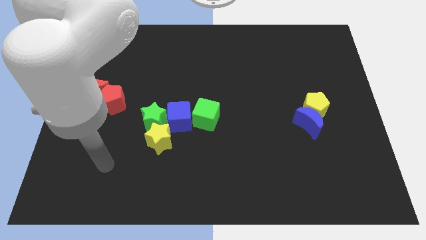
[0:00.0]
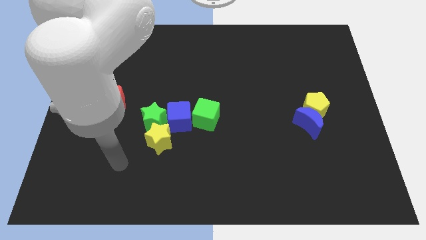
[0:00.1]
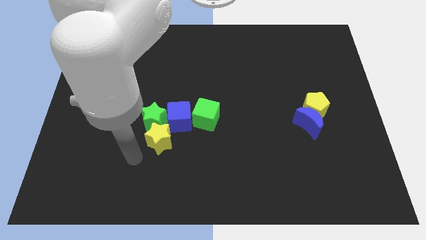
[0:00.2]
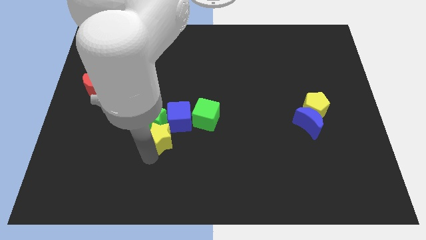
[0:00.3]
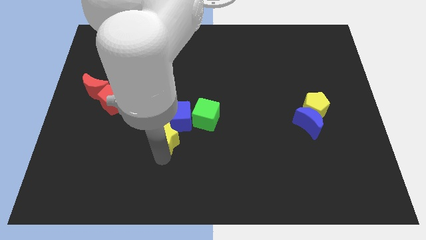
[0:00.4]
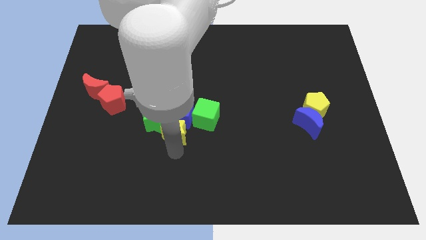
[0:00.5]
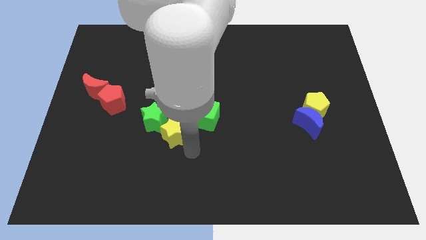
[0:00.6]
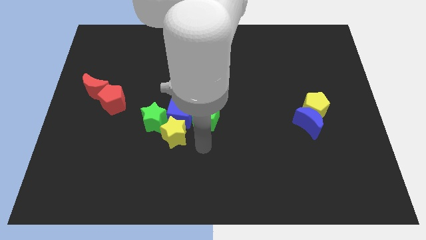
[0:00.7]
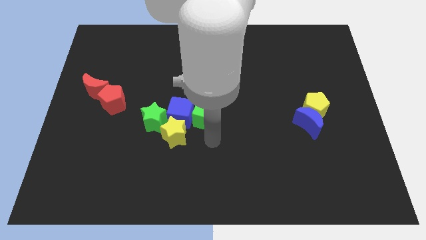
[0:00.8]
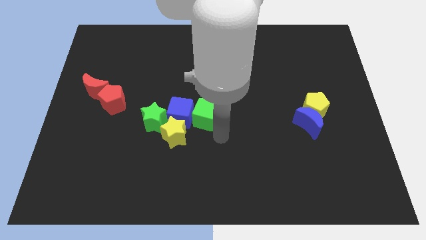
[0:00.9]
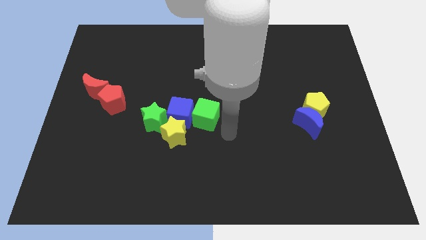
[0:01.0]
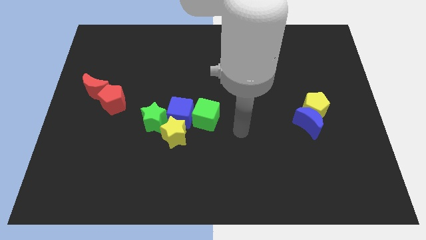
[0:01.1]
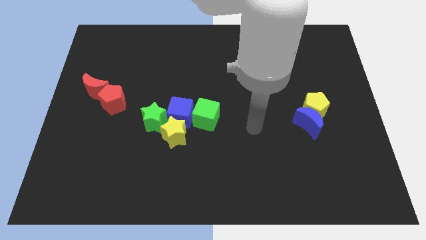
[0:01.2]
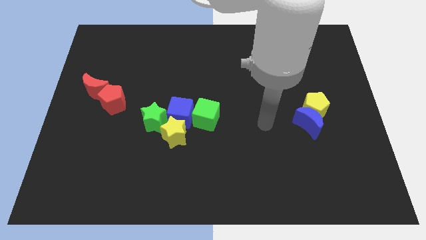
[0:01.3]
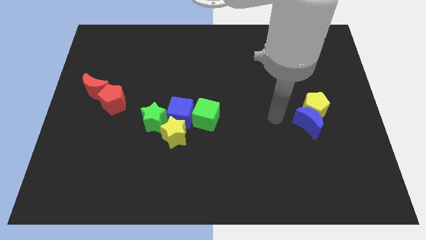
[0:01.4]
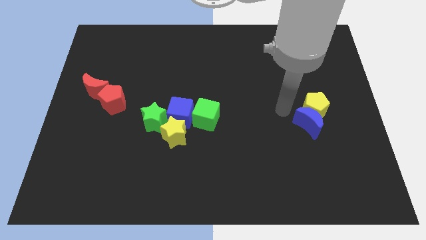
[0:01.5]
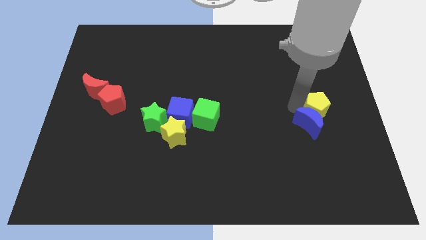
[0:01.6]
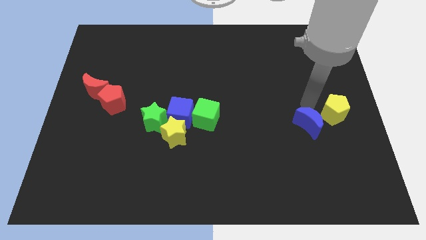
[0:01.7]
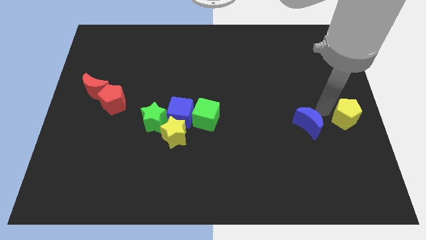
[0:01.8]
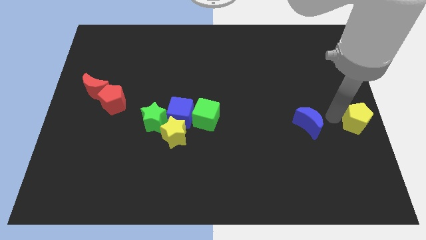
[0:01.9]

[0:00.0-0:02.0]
pull the blue moon apart from the yellow pentagon

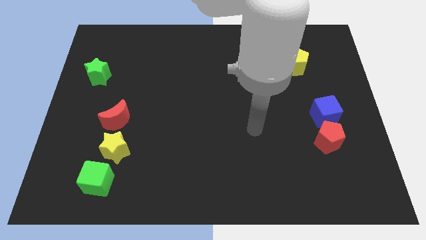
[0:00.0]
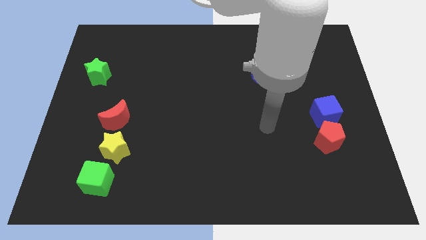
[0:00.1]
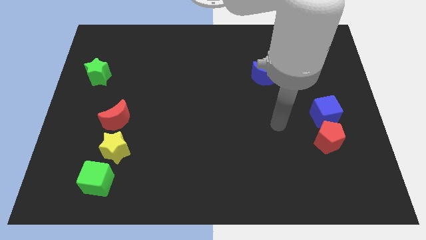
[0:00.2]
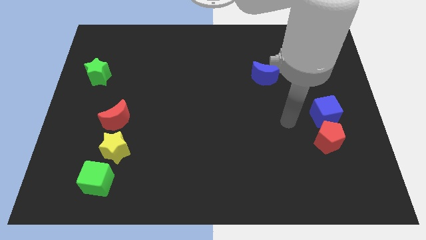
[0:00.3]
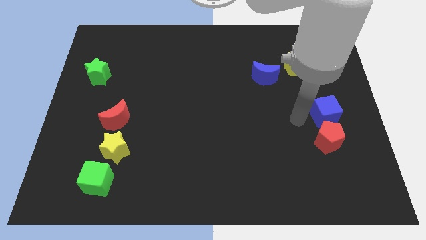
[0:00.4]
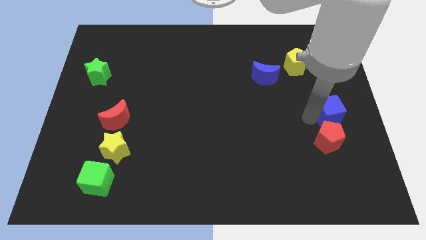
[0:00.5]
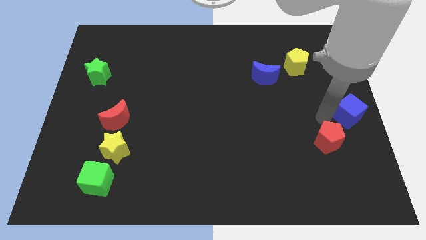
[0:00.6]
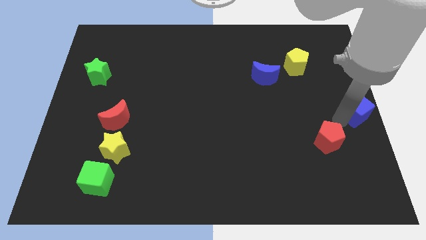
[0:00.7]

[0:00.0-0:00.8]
separate the red pentagon from the blue cube

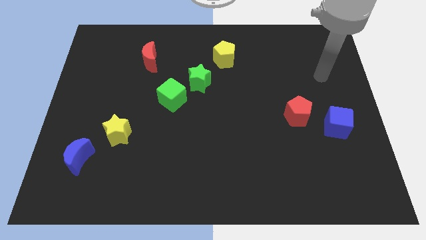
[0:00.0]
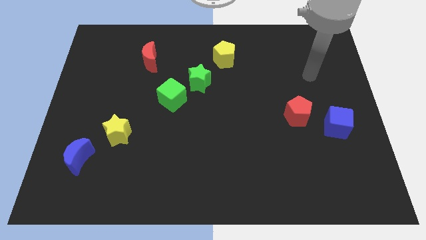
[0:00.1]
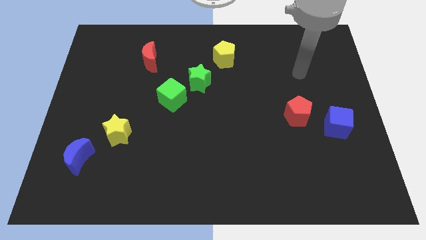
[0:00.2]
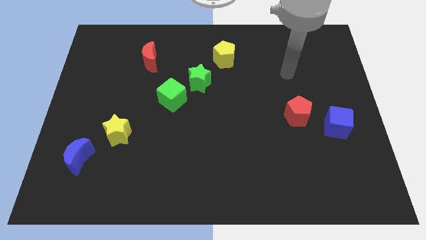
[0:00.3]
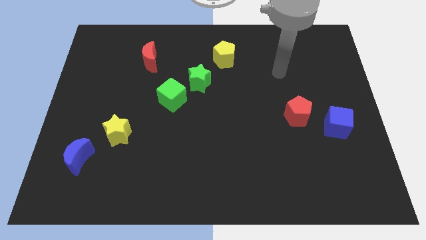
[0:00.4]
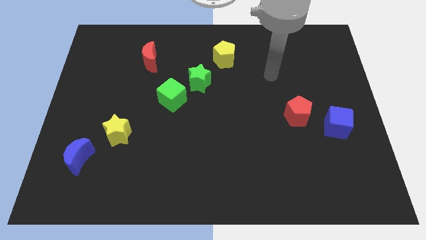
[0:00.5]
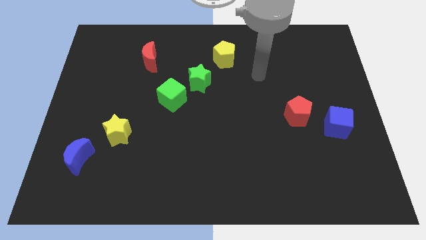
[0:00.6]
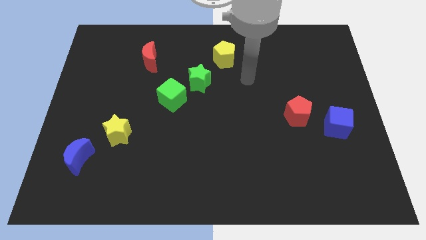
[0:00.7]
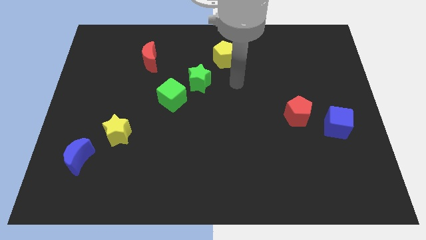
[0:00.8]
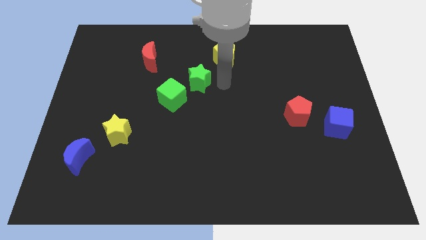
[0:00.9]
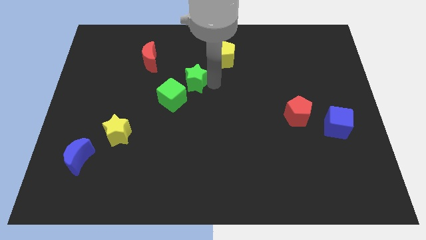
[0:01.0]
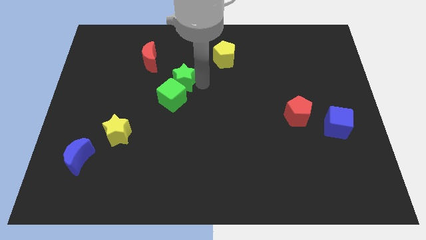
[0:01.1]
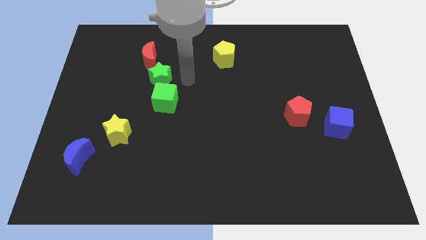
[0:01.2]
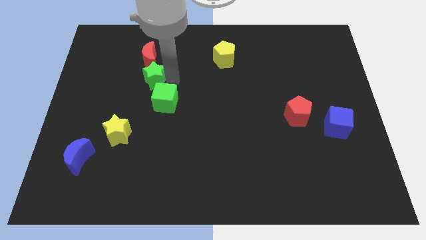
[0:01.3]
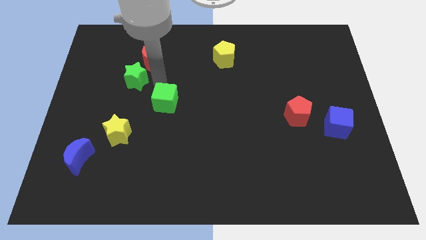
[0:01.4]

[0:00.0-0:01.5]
pull the green cube apart from the green star

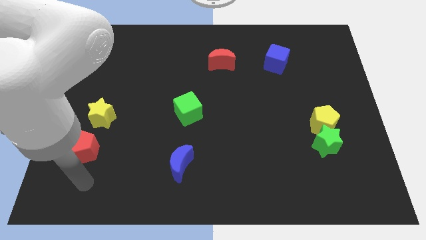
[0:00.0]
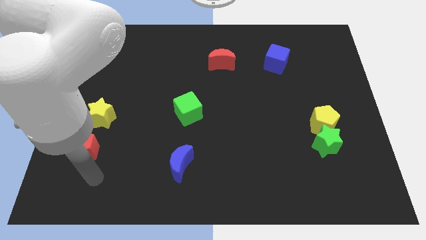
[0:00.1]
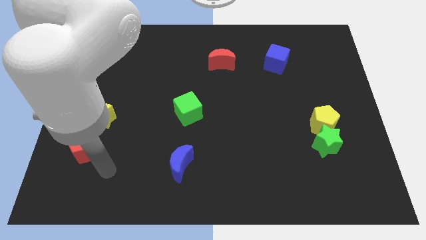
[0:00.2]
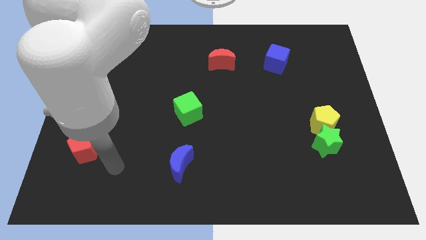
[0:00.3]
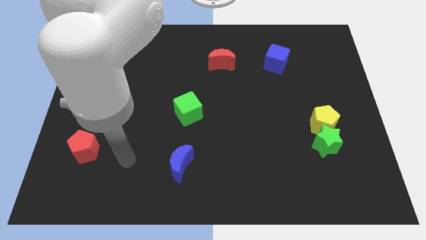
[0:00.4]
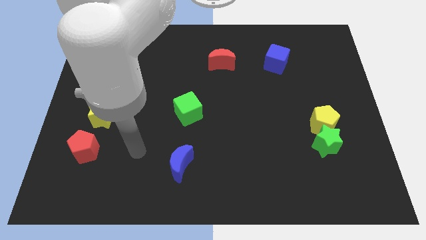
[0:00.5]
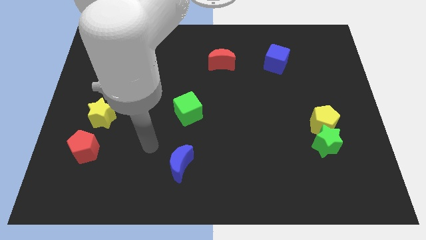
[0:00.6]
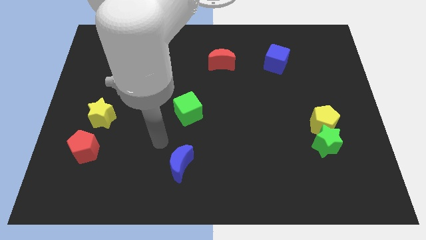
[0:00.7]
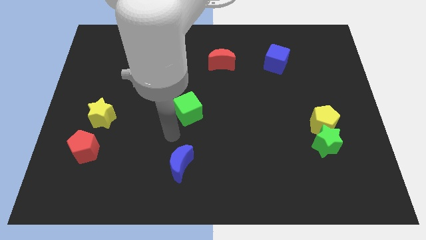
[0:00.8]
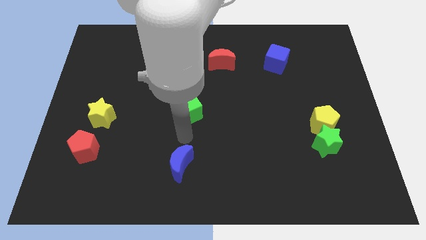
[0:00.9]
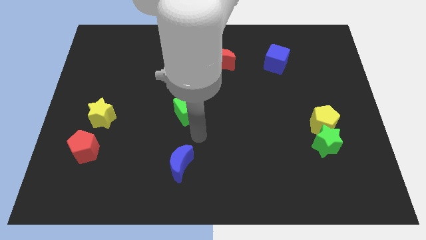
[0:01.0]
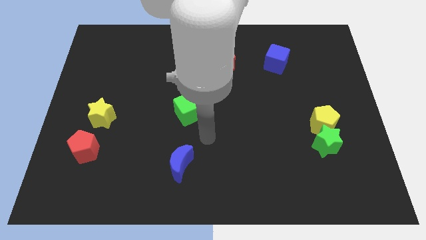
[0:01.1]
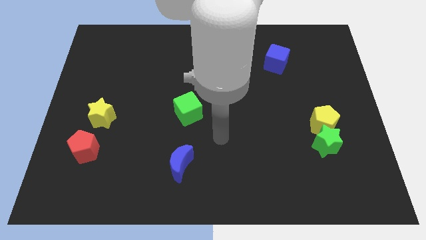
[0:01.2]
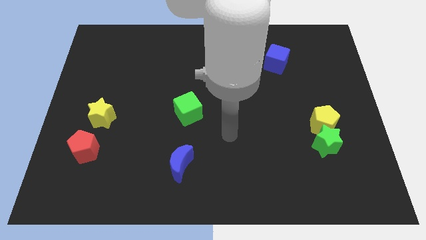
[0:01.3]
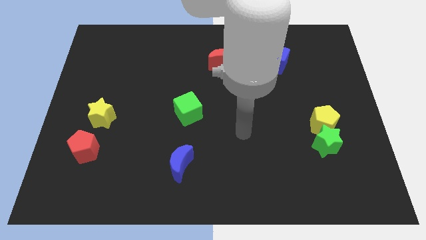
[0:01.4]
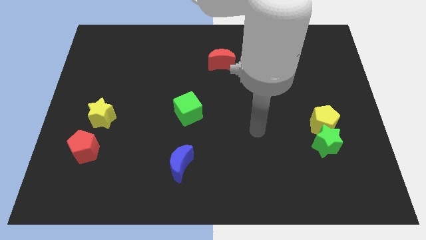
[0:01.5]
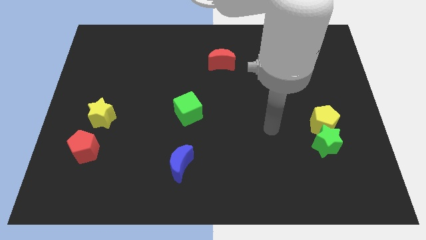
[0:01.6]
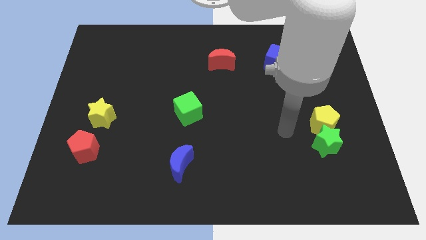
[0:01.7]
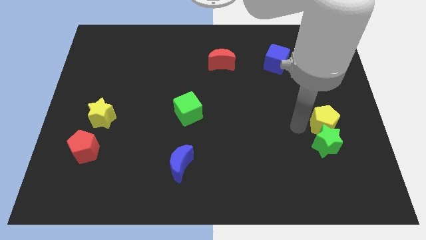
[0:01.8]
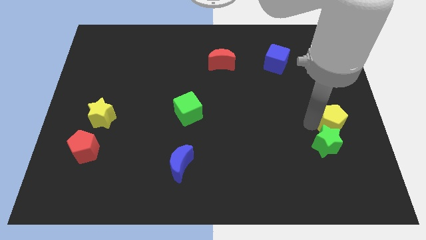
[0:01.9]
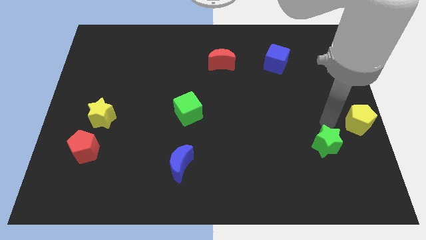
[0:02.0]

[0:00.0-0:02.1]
pull the green star apart from the yellow pentagon

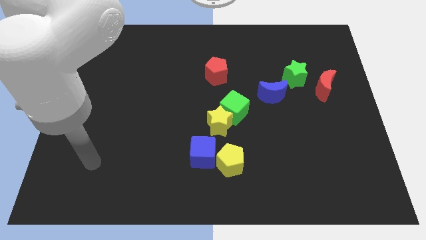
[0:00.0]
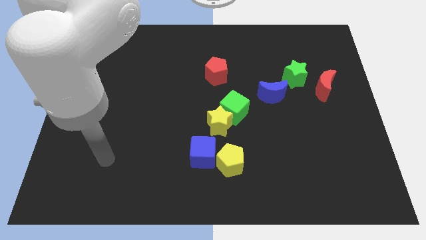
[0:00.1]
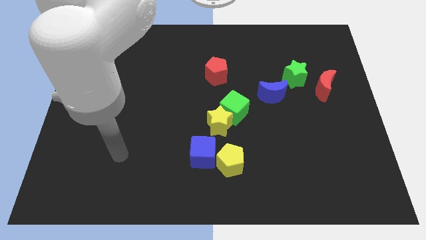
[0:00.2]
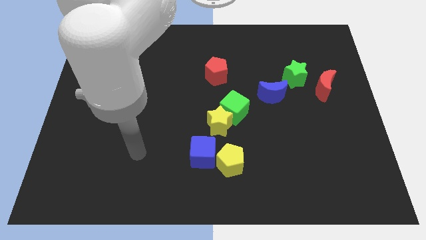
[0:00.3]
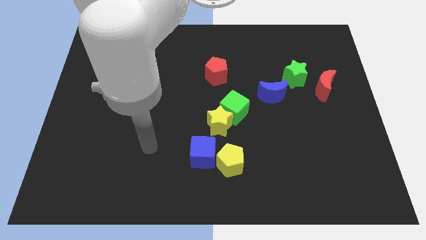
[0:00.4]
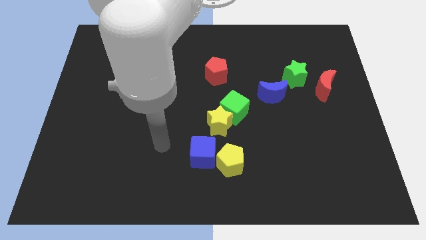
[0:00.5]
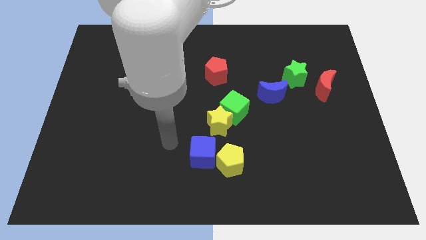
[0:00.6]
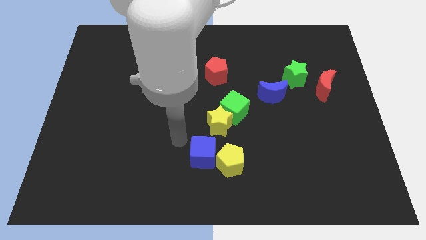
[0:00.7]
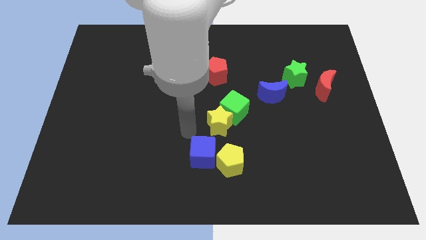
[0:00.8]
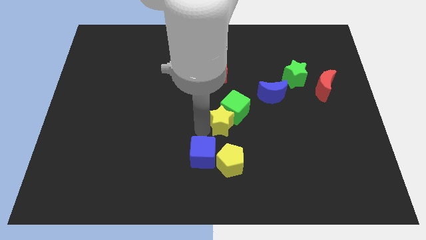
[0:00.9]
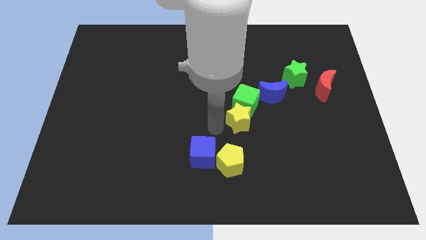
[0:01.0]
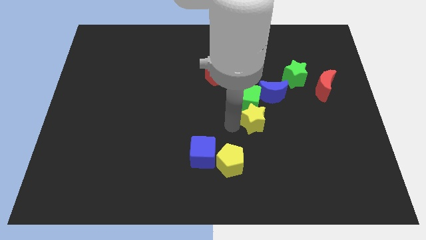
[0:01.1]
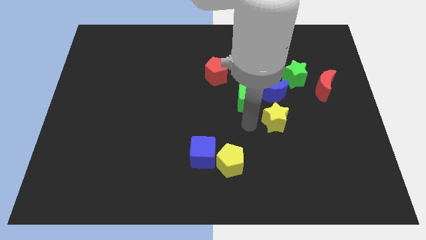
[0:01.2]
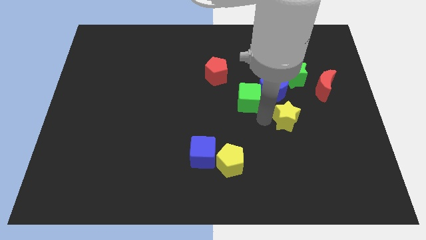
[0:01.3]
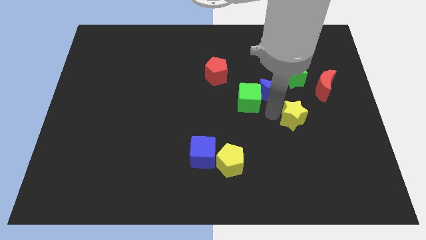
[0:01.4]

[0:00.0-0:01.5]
move the green cube away from the yellow star

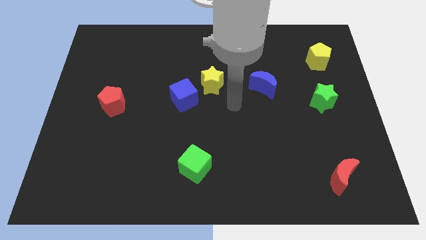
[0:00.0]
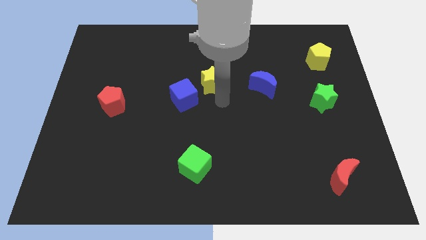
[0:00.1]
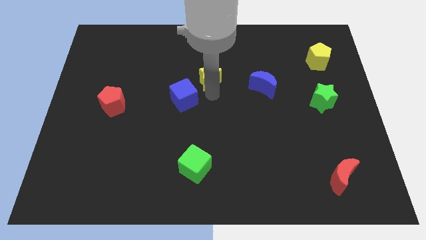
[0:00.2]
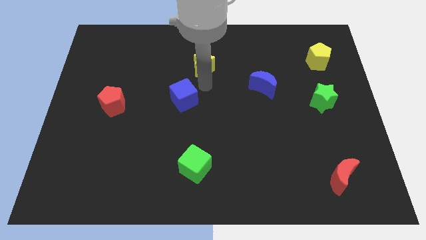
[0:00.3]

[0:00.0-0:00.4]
separate the blue cube from the yellow star

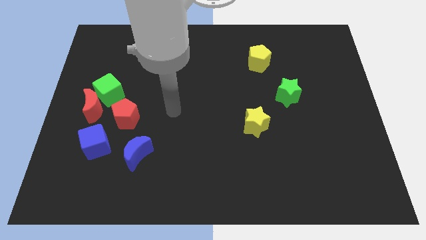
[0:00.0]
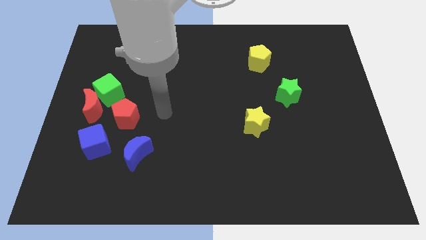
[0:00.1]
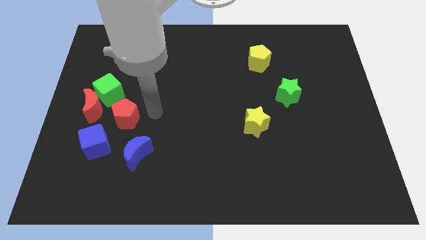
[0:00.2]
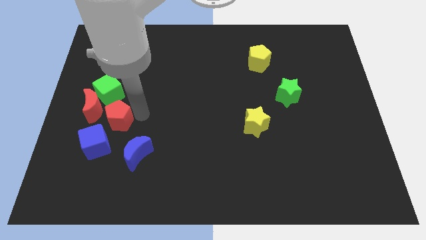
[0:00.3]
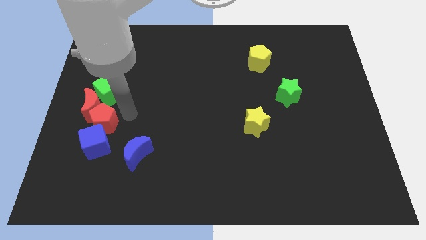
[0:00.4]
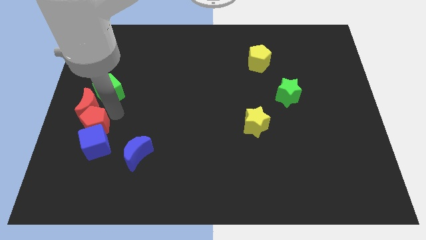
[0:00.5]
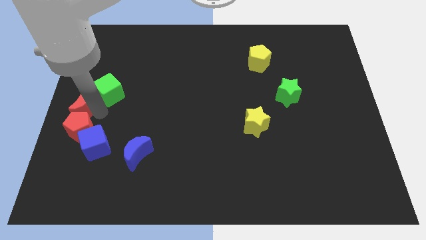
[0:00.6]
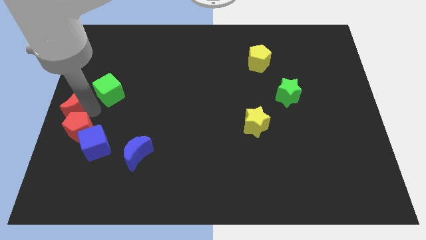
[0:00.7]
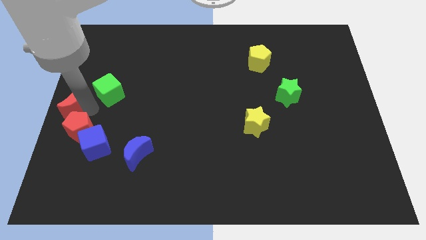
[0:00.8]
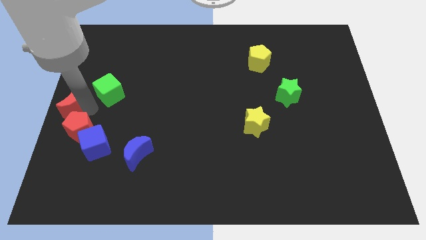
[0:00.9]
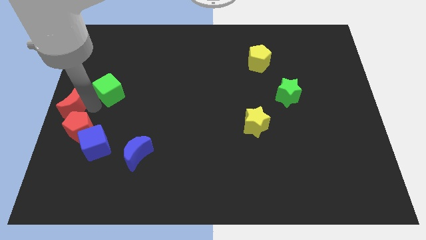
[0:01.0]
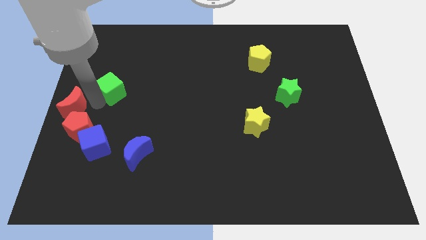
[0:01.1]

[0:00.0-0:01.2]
pull the green cube apart from the red moon and red pentagon
